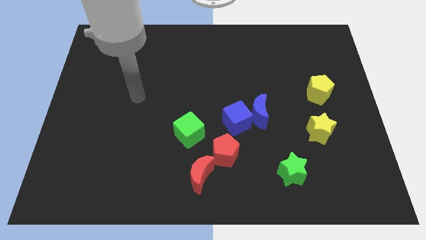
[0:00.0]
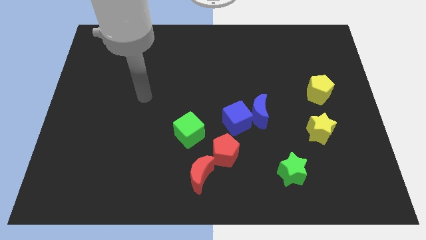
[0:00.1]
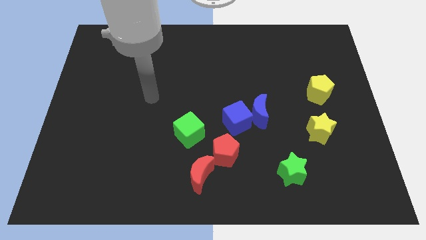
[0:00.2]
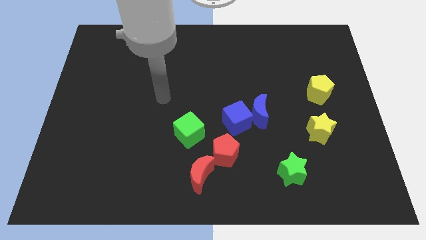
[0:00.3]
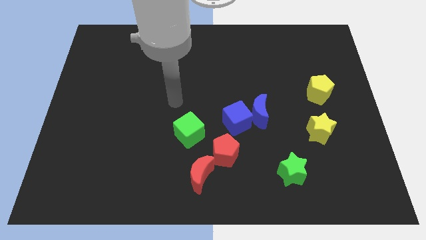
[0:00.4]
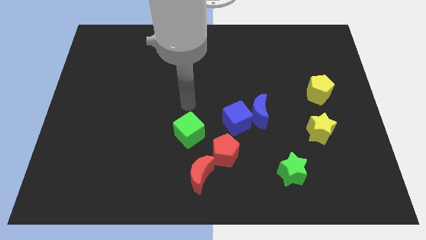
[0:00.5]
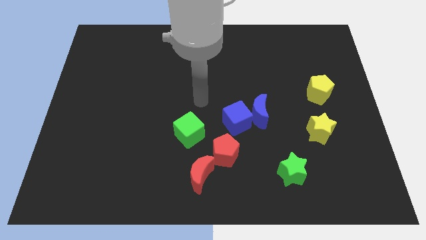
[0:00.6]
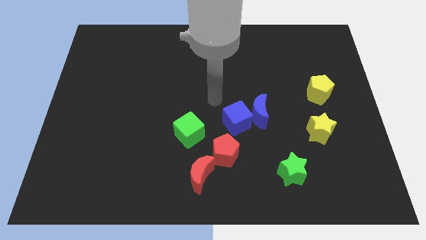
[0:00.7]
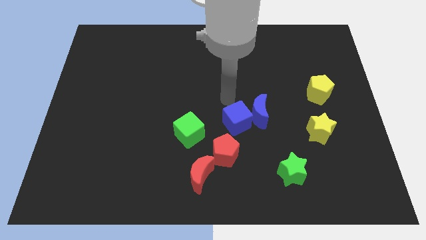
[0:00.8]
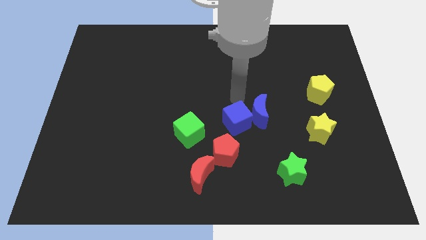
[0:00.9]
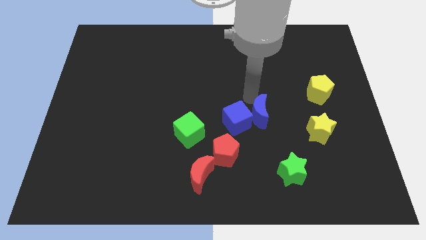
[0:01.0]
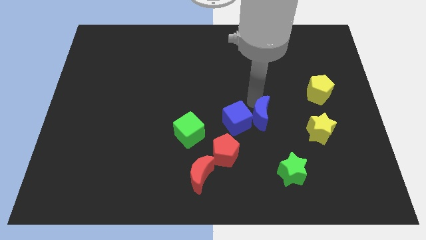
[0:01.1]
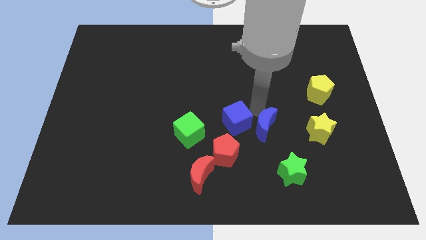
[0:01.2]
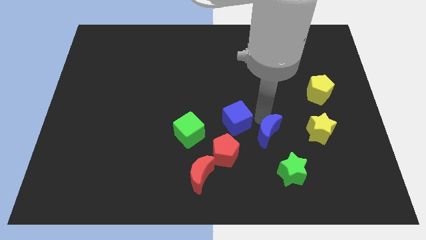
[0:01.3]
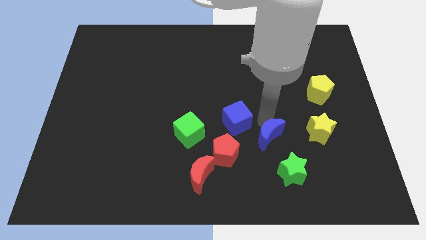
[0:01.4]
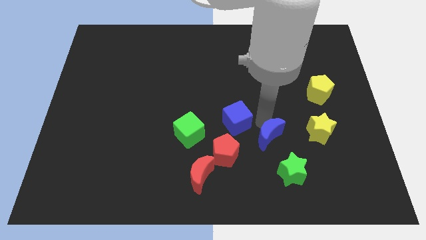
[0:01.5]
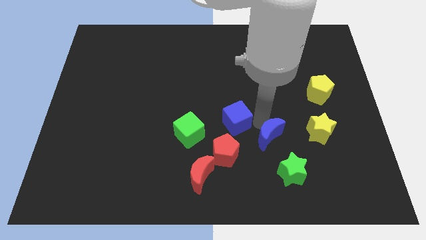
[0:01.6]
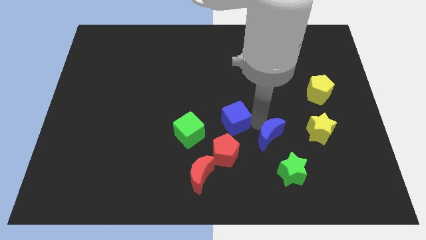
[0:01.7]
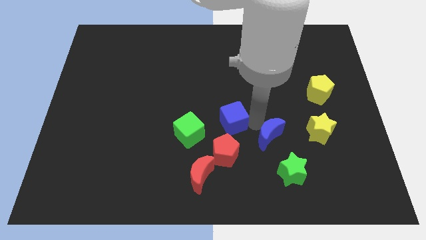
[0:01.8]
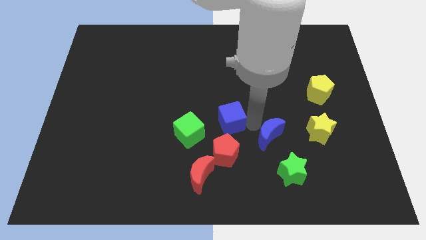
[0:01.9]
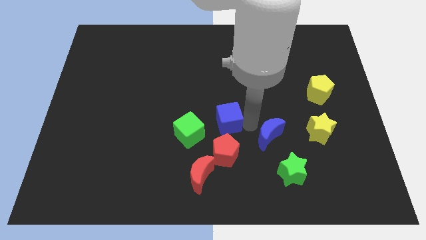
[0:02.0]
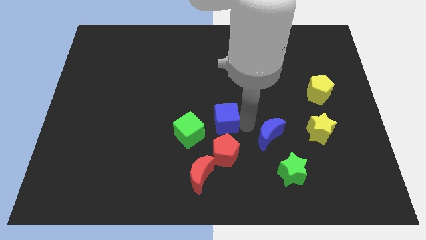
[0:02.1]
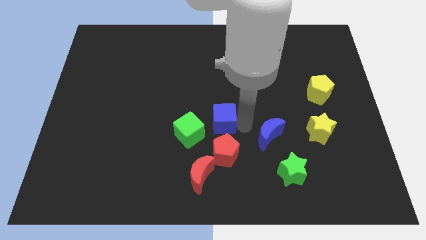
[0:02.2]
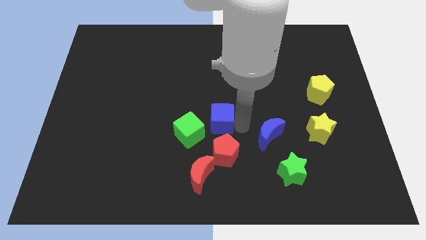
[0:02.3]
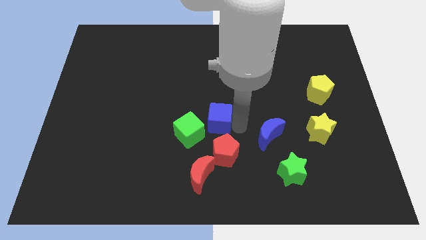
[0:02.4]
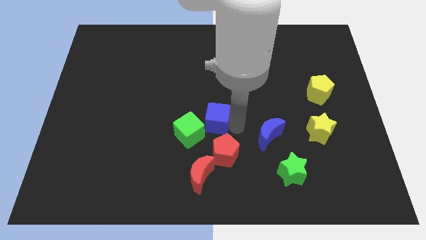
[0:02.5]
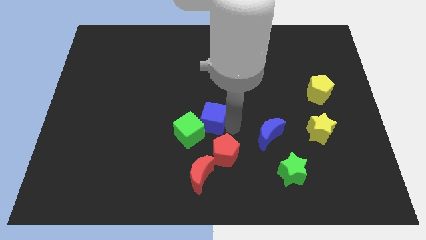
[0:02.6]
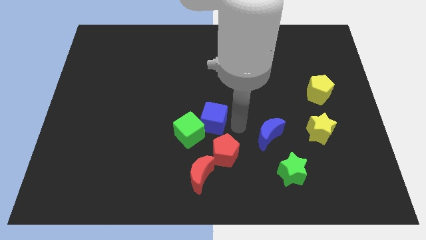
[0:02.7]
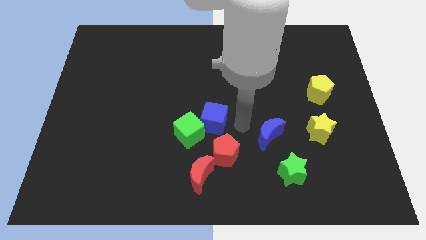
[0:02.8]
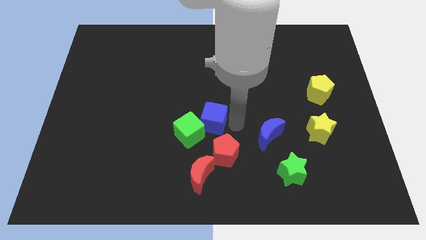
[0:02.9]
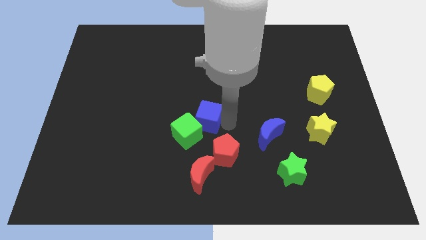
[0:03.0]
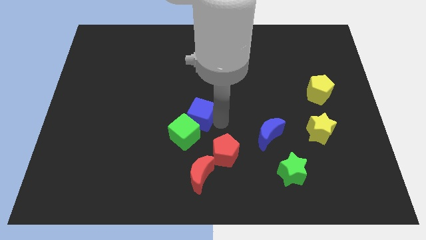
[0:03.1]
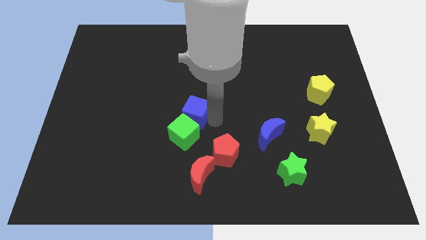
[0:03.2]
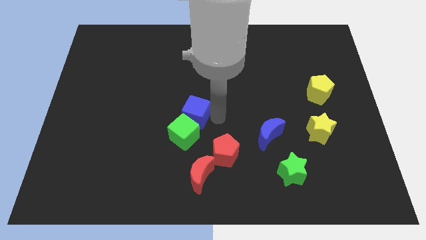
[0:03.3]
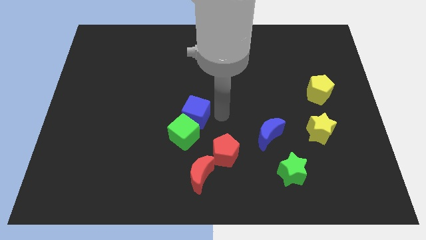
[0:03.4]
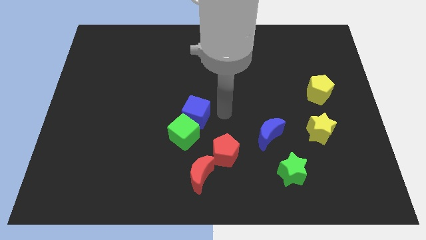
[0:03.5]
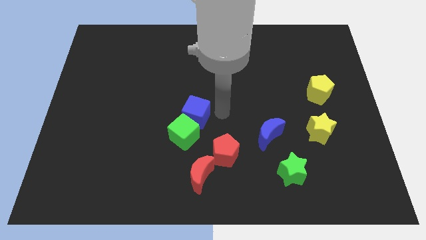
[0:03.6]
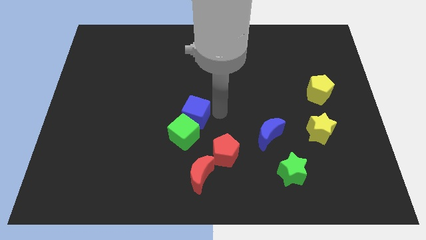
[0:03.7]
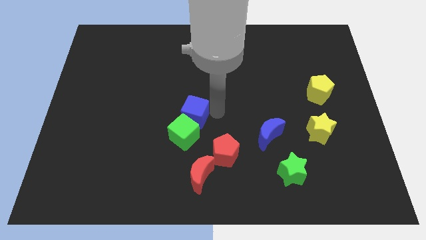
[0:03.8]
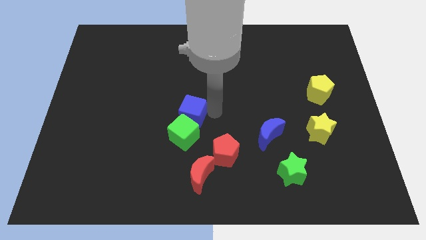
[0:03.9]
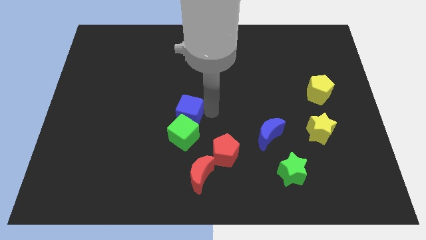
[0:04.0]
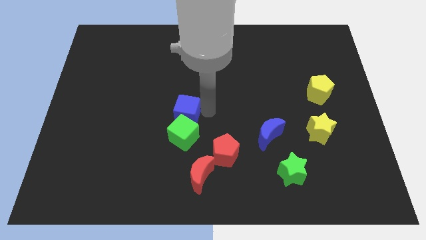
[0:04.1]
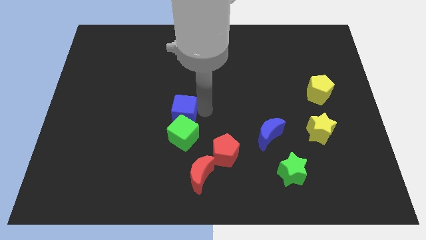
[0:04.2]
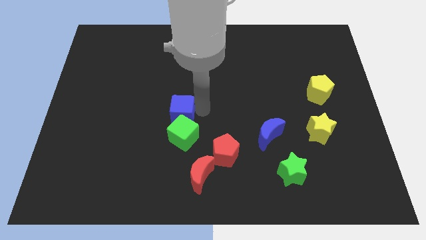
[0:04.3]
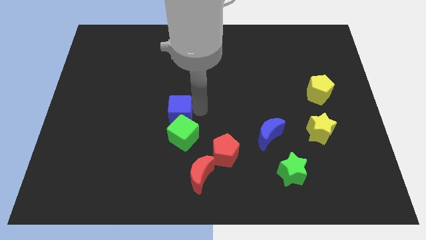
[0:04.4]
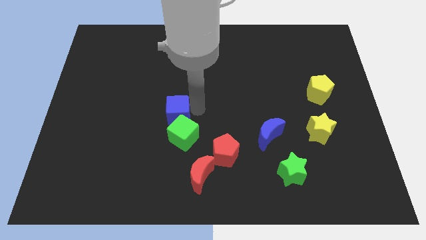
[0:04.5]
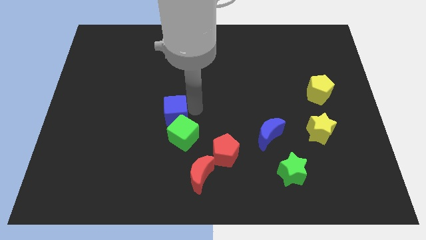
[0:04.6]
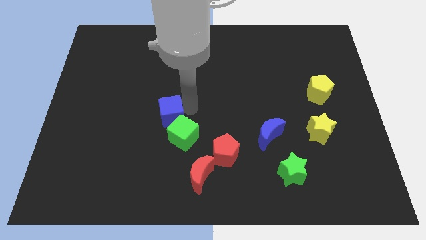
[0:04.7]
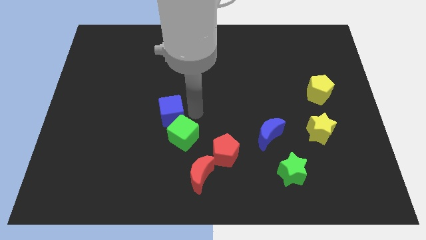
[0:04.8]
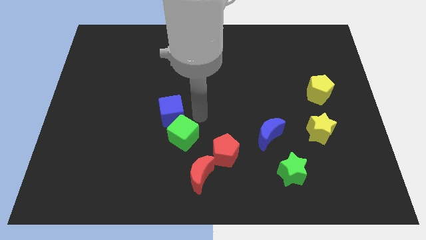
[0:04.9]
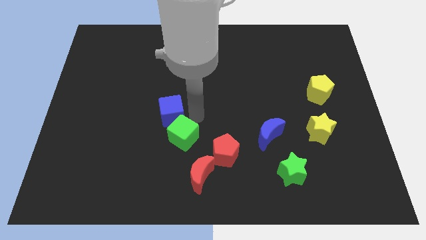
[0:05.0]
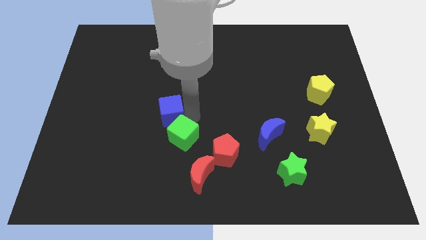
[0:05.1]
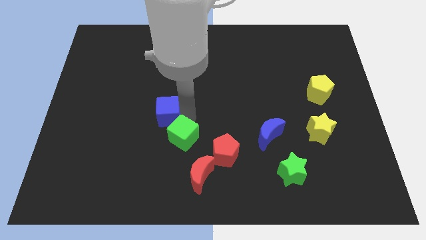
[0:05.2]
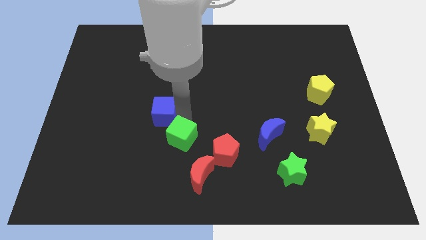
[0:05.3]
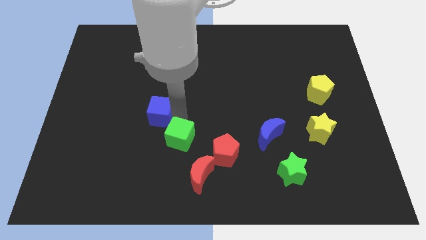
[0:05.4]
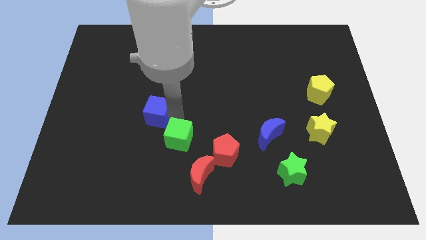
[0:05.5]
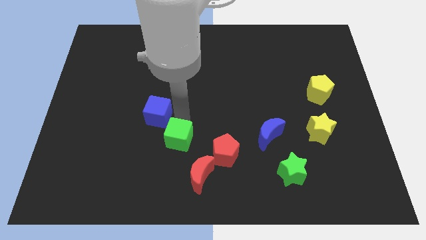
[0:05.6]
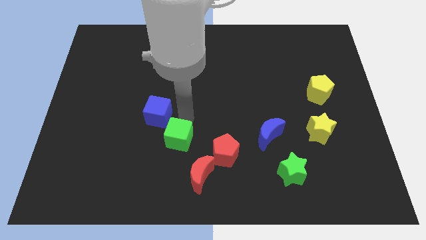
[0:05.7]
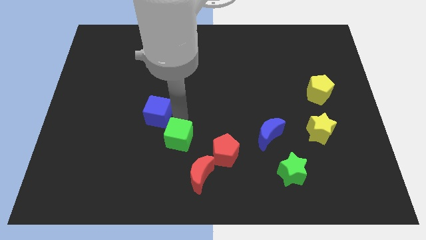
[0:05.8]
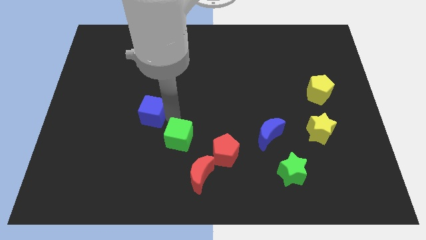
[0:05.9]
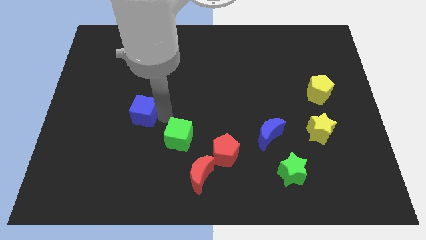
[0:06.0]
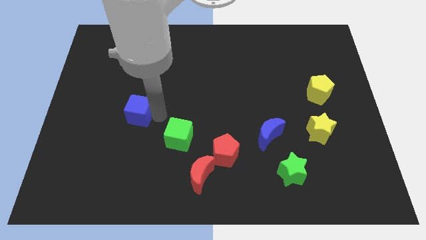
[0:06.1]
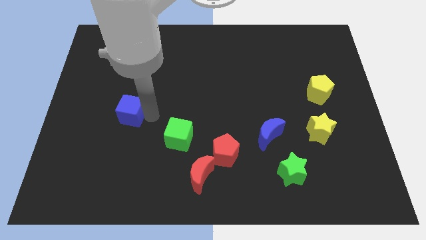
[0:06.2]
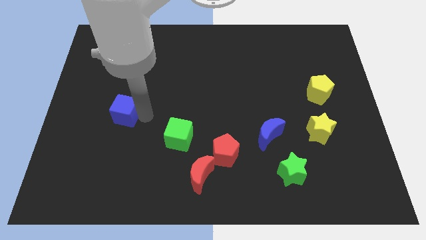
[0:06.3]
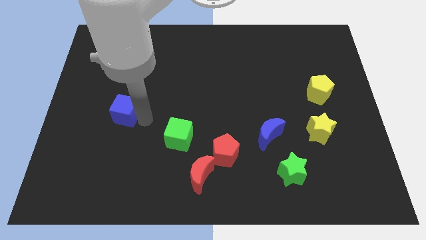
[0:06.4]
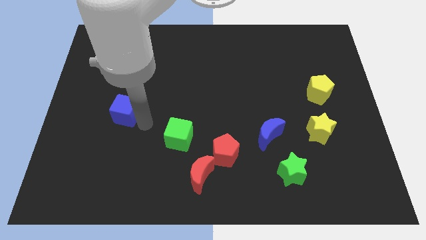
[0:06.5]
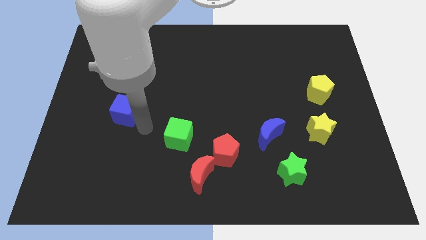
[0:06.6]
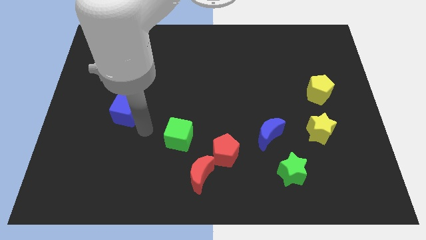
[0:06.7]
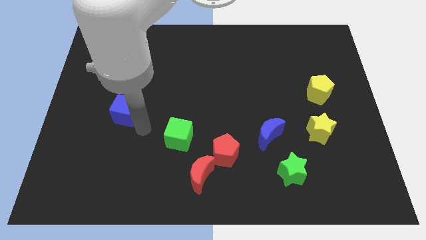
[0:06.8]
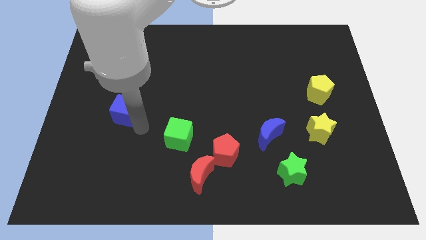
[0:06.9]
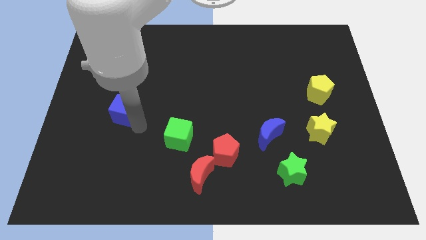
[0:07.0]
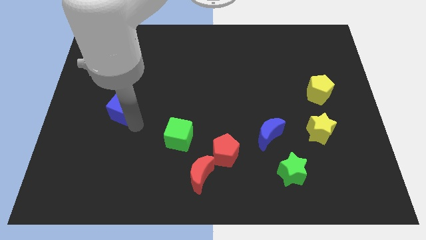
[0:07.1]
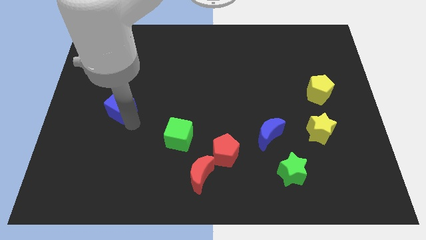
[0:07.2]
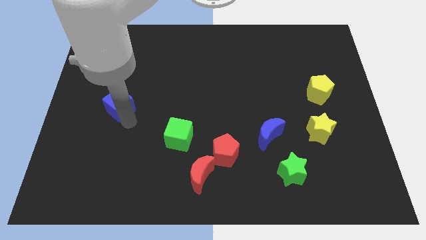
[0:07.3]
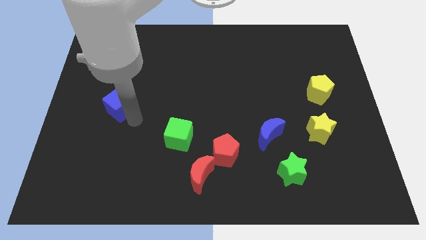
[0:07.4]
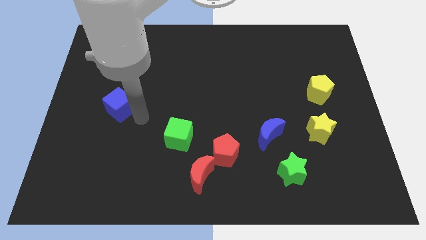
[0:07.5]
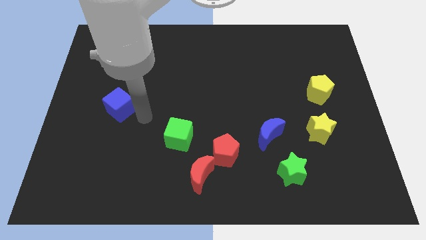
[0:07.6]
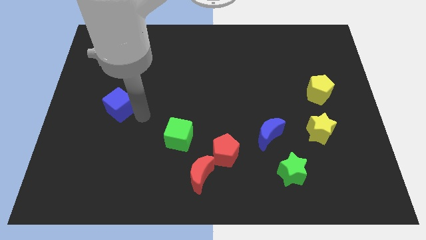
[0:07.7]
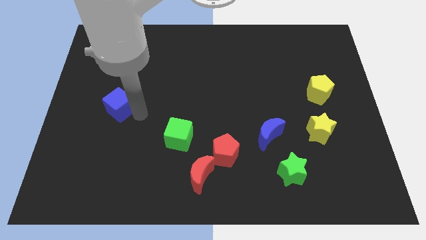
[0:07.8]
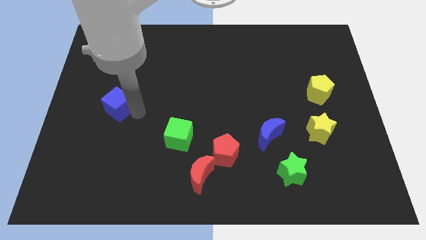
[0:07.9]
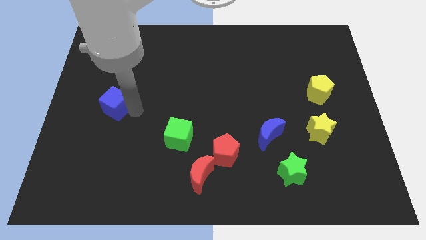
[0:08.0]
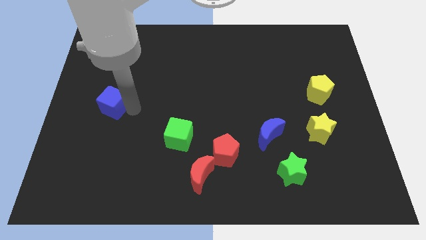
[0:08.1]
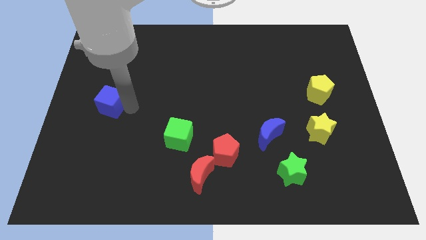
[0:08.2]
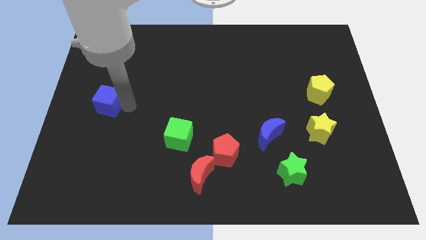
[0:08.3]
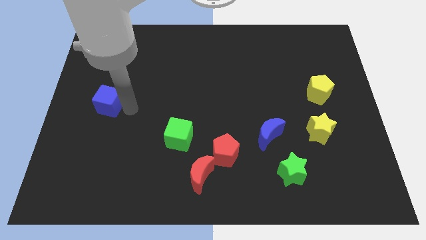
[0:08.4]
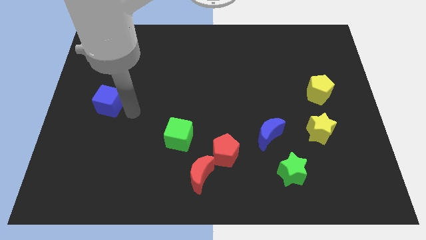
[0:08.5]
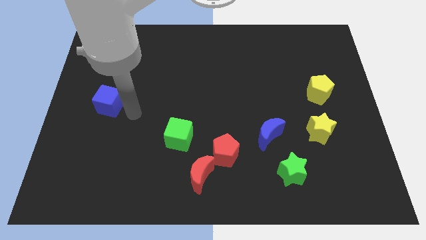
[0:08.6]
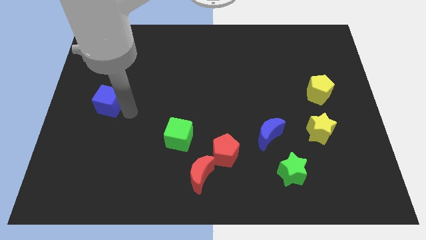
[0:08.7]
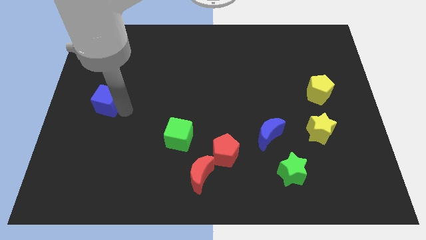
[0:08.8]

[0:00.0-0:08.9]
push the blue cube to the left side of the board
